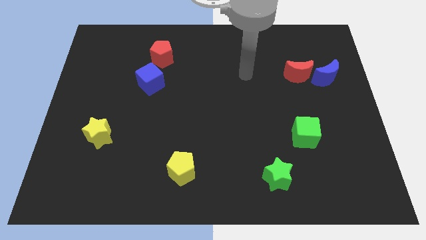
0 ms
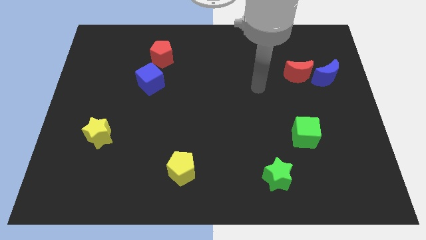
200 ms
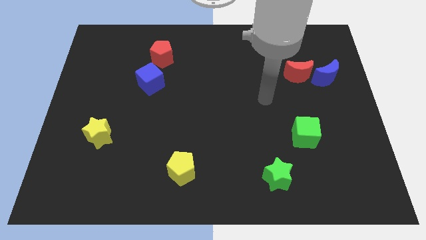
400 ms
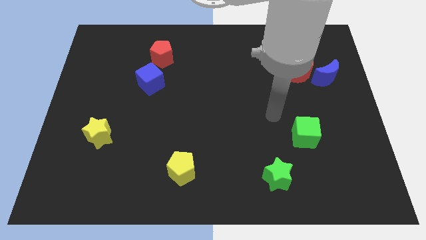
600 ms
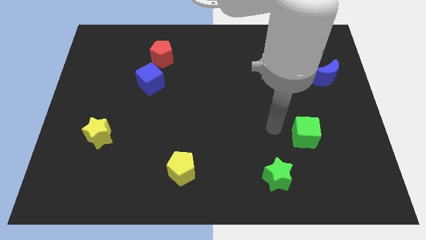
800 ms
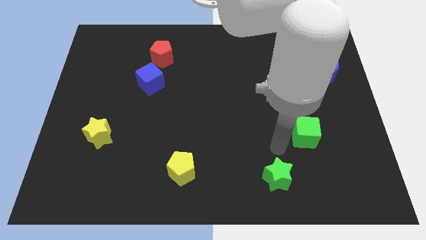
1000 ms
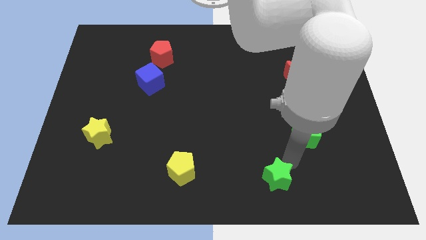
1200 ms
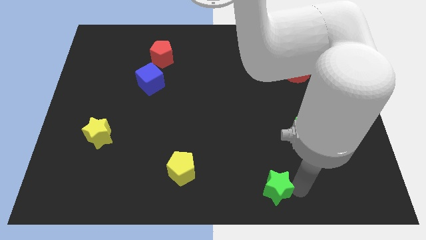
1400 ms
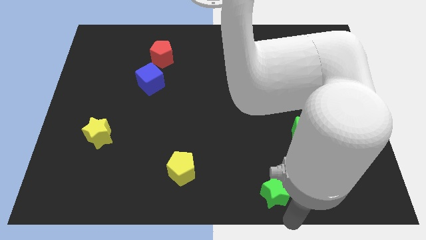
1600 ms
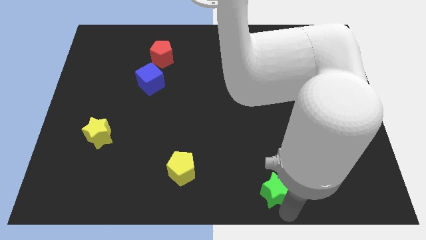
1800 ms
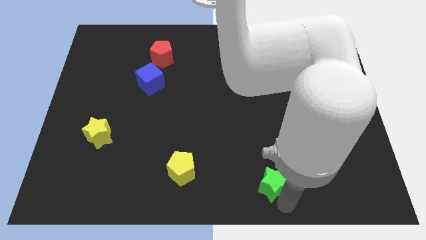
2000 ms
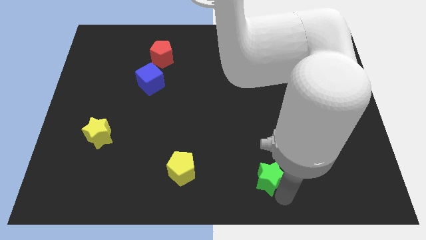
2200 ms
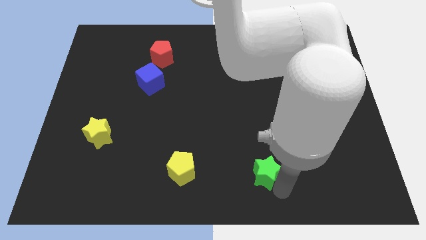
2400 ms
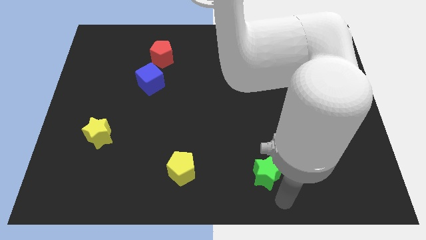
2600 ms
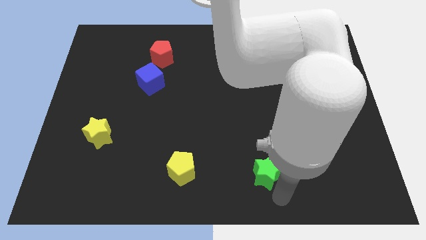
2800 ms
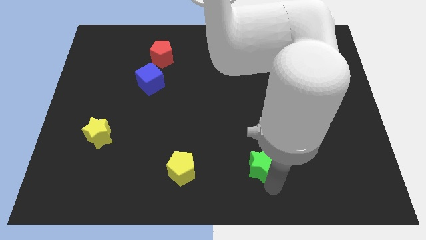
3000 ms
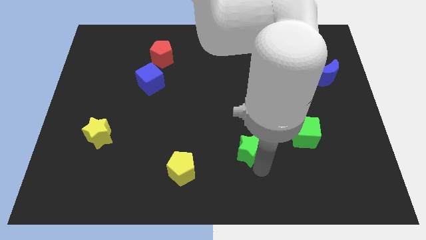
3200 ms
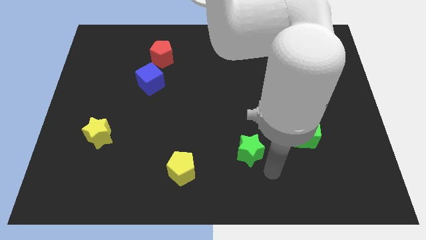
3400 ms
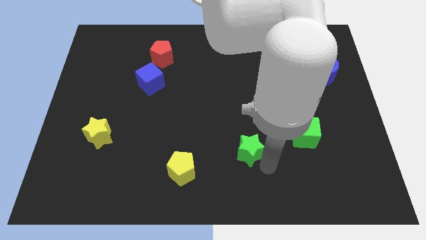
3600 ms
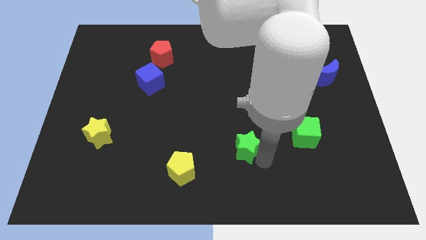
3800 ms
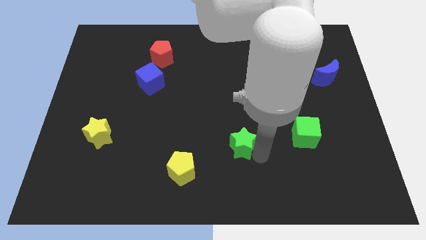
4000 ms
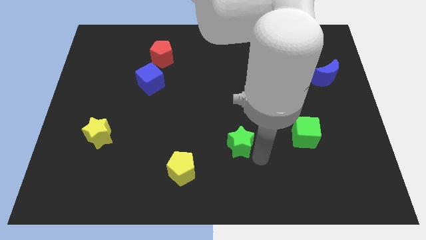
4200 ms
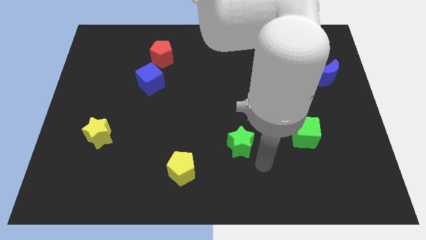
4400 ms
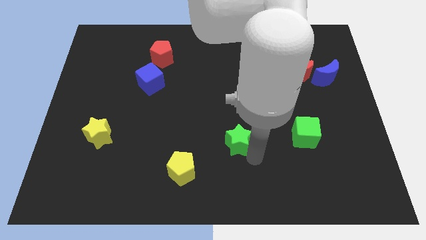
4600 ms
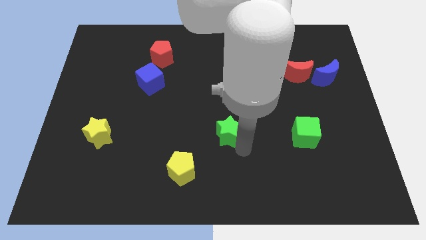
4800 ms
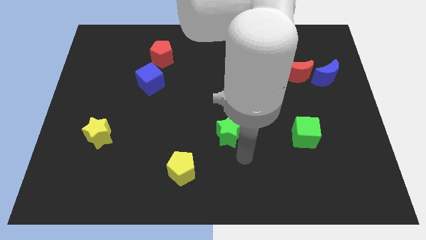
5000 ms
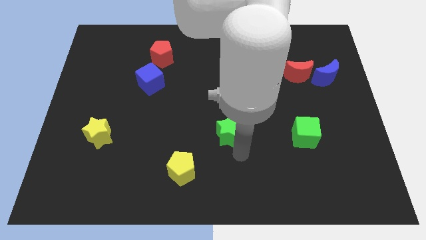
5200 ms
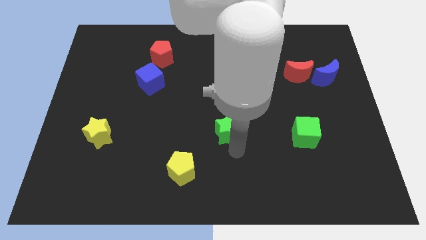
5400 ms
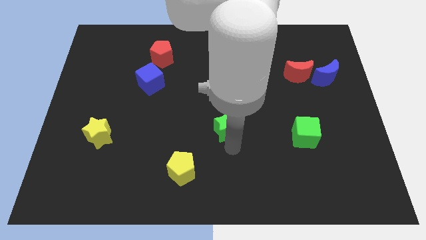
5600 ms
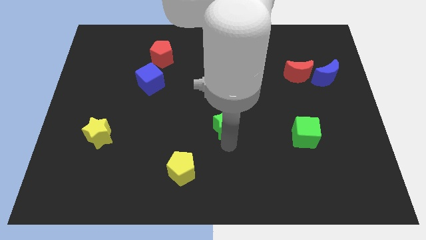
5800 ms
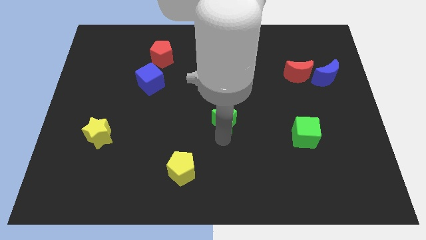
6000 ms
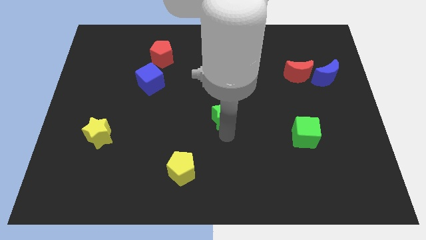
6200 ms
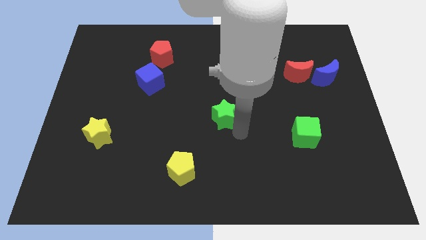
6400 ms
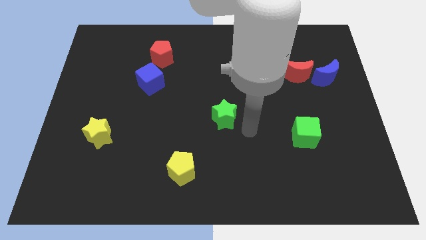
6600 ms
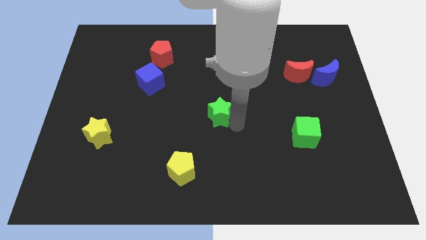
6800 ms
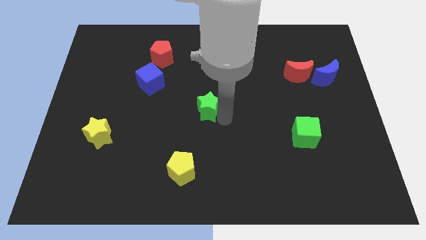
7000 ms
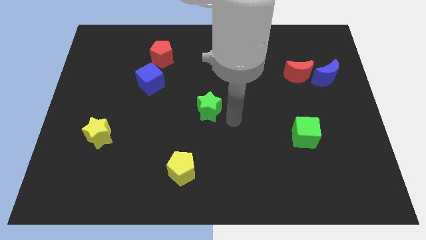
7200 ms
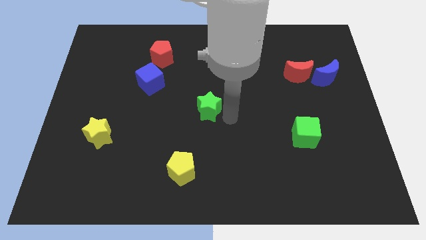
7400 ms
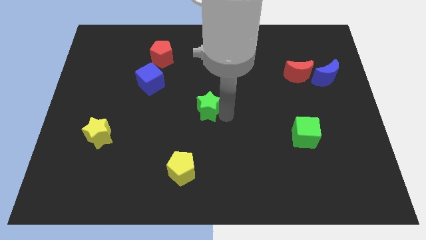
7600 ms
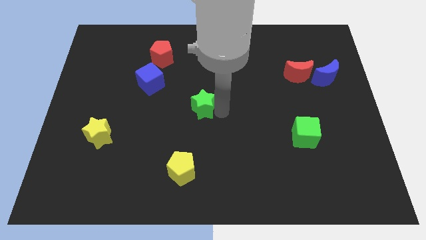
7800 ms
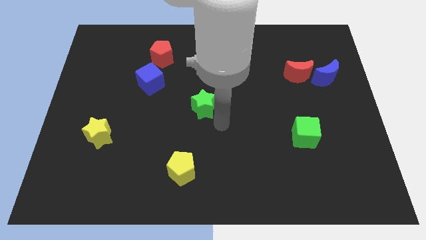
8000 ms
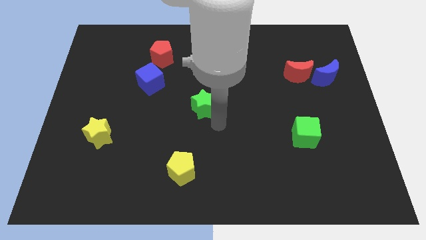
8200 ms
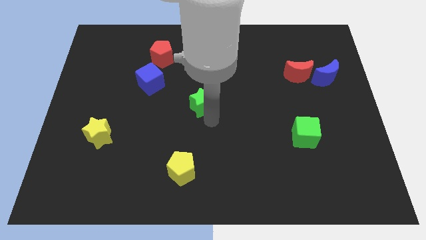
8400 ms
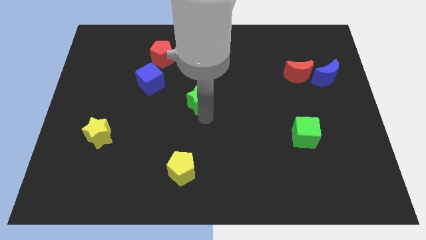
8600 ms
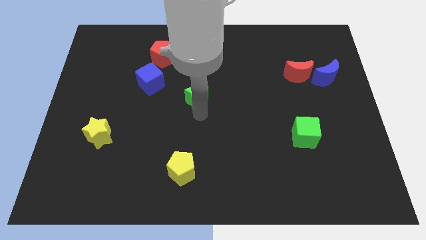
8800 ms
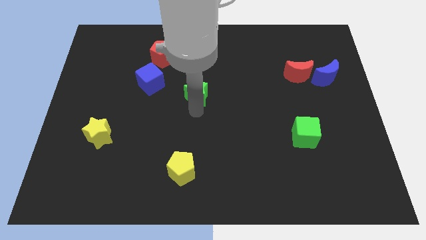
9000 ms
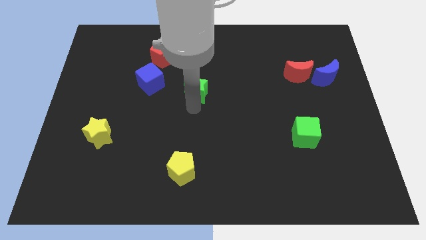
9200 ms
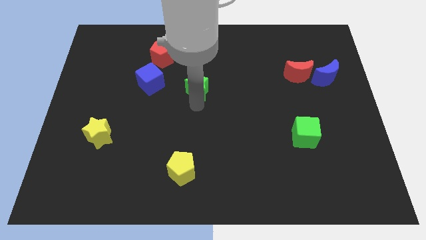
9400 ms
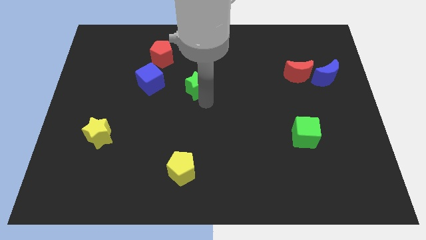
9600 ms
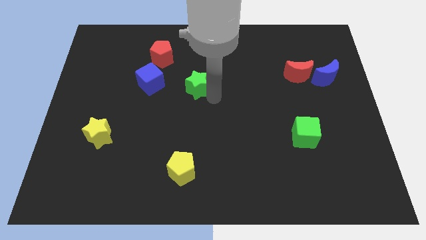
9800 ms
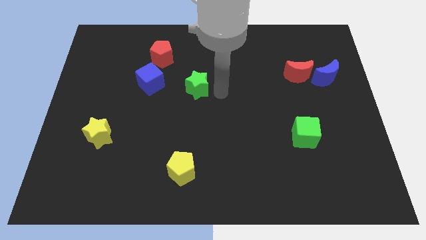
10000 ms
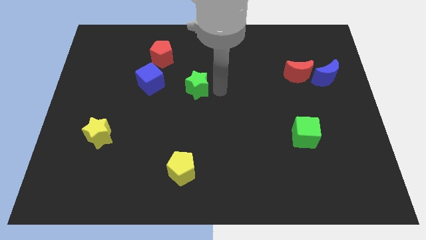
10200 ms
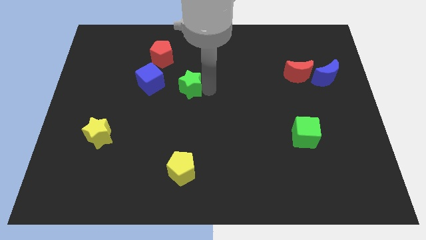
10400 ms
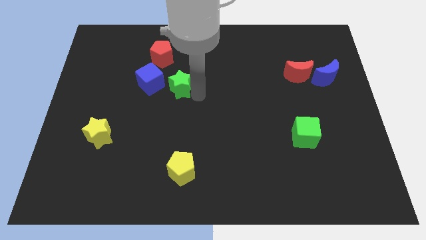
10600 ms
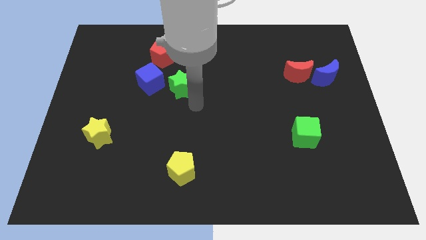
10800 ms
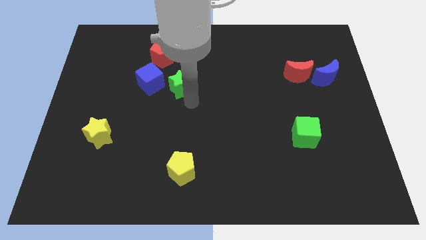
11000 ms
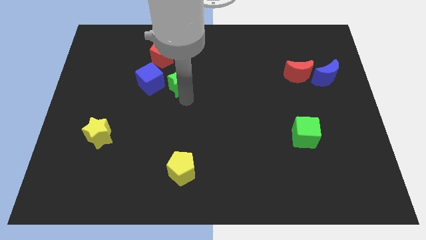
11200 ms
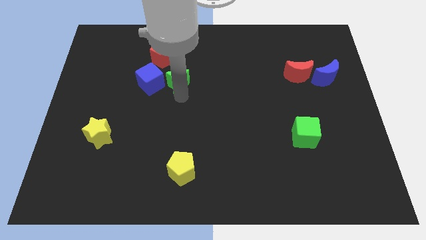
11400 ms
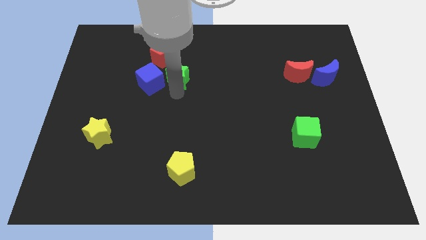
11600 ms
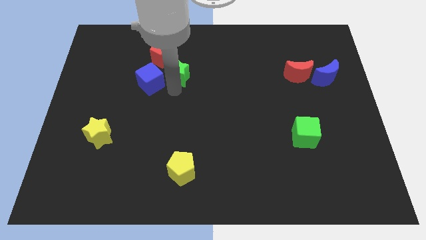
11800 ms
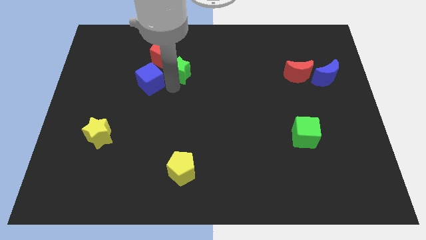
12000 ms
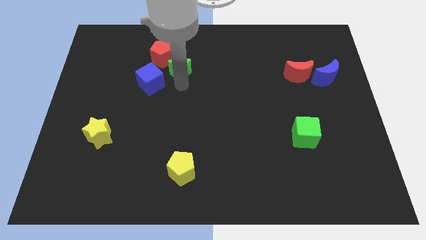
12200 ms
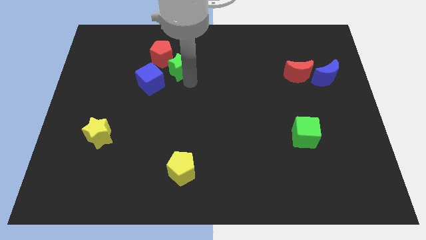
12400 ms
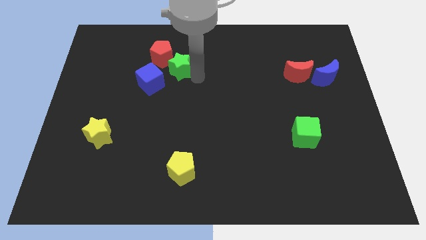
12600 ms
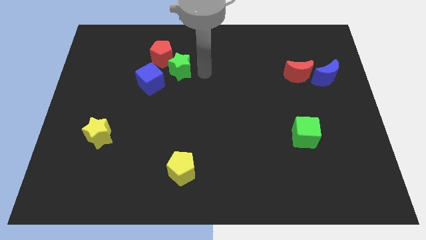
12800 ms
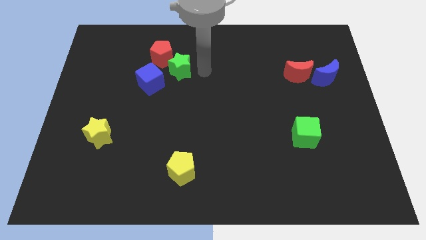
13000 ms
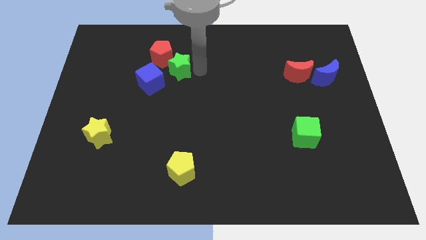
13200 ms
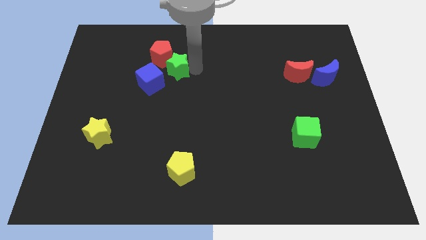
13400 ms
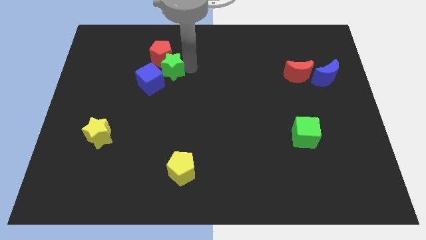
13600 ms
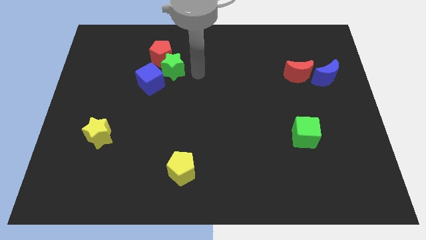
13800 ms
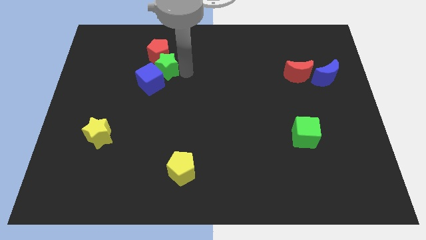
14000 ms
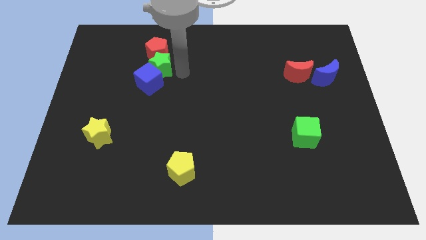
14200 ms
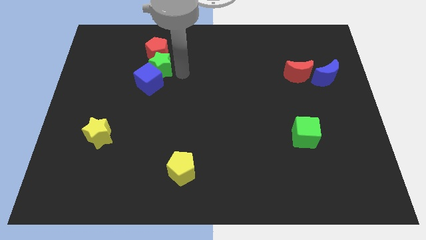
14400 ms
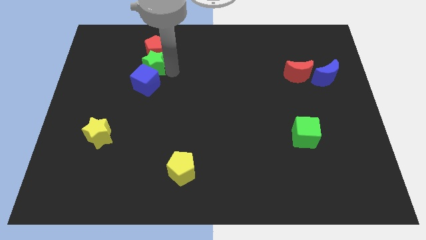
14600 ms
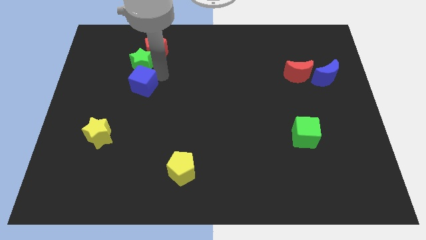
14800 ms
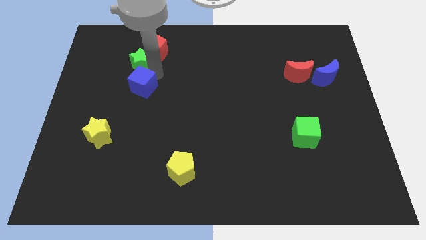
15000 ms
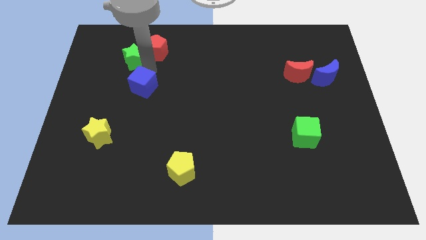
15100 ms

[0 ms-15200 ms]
put the green star left of the red pentagon
